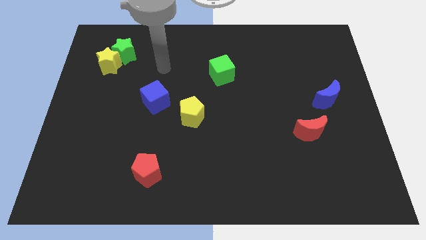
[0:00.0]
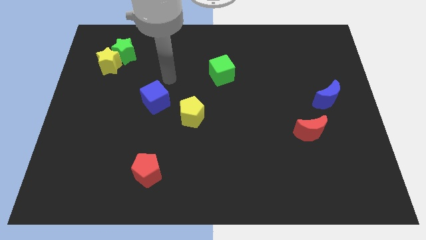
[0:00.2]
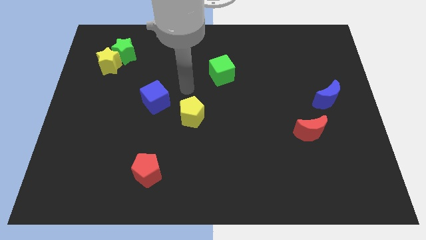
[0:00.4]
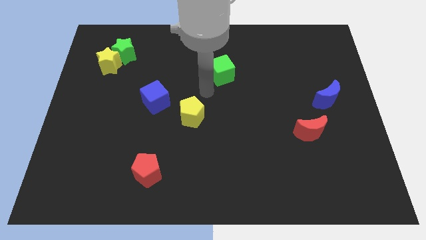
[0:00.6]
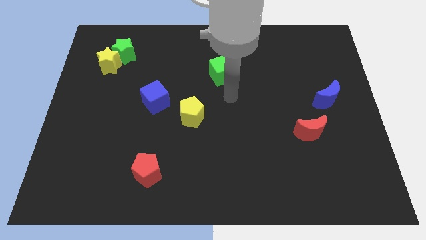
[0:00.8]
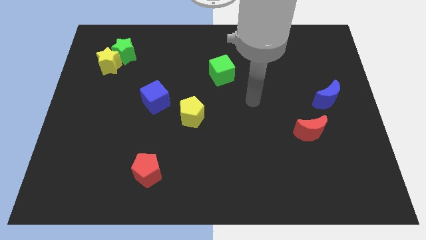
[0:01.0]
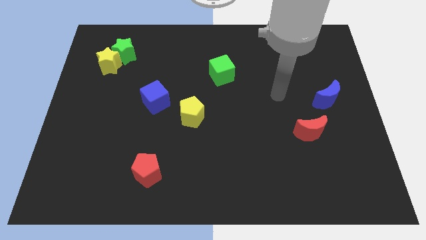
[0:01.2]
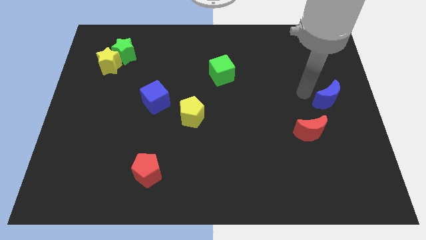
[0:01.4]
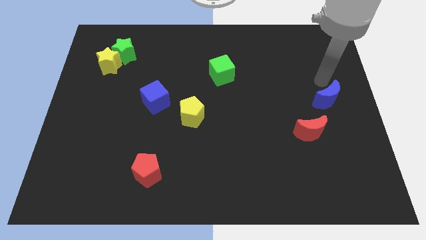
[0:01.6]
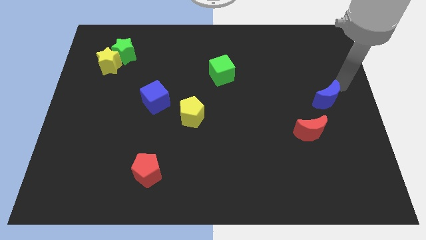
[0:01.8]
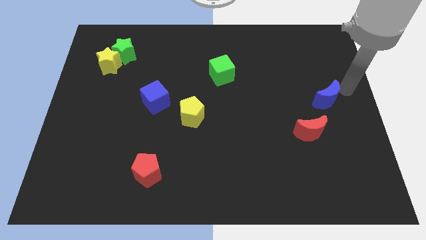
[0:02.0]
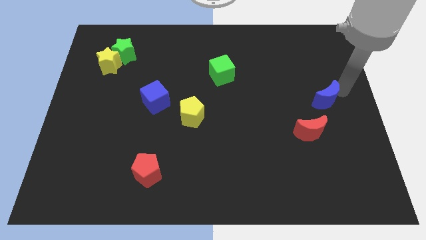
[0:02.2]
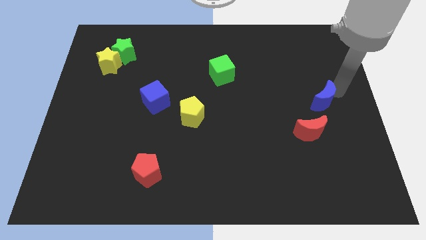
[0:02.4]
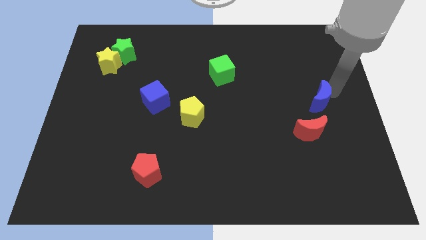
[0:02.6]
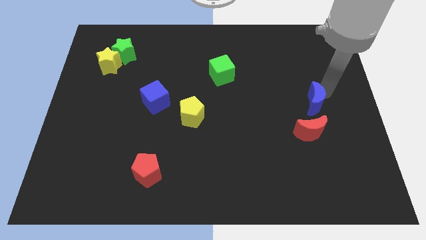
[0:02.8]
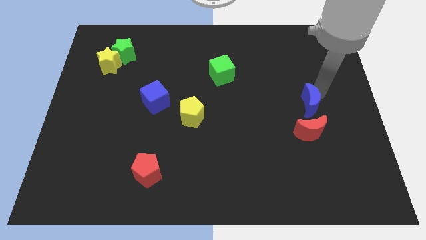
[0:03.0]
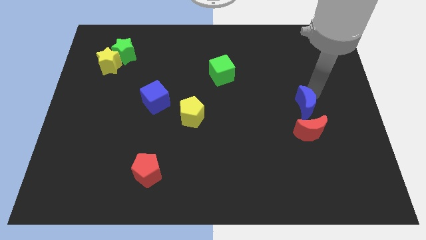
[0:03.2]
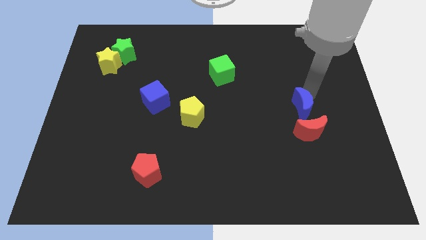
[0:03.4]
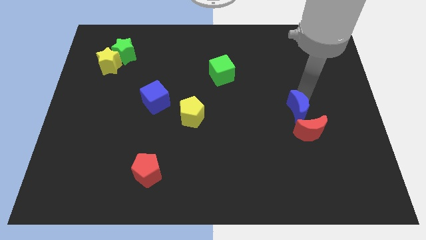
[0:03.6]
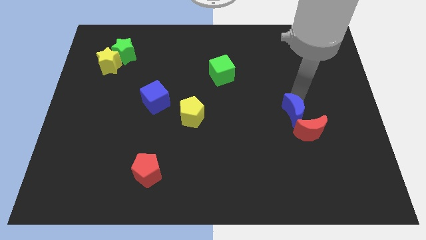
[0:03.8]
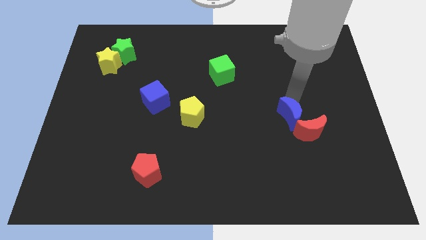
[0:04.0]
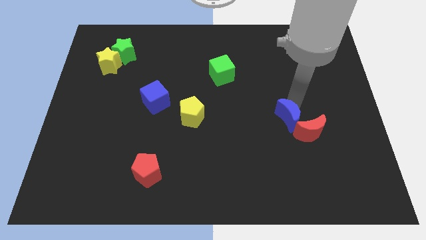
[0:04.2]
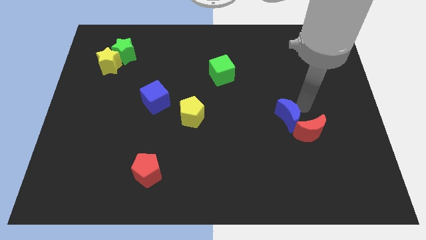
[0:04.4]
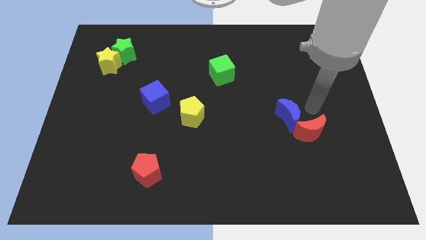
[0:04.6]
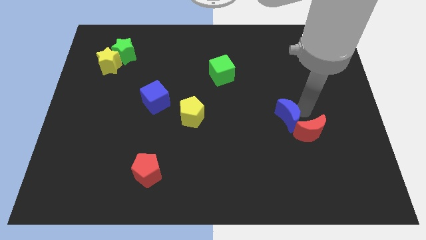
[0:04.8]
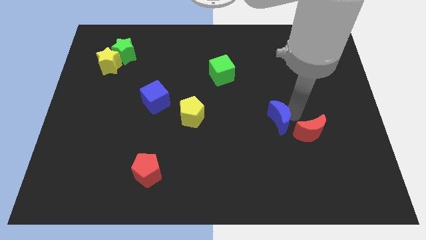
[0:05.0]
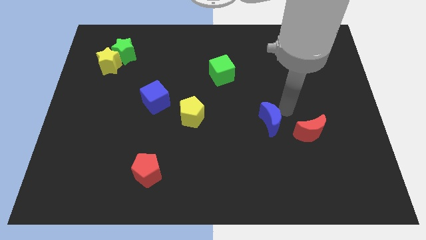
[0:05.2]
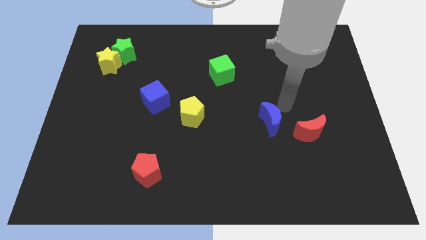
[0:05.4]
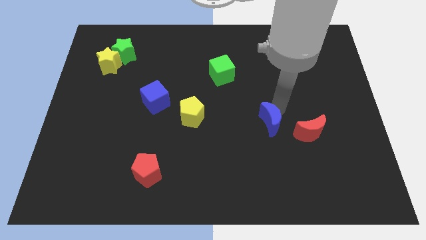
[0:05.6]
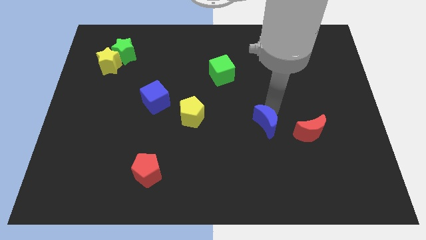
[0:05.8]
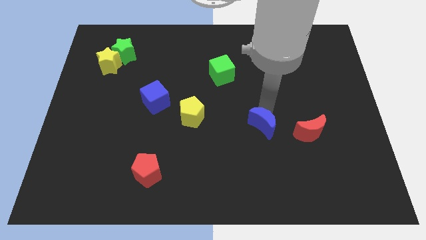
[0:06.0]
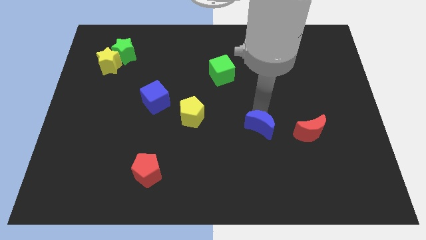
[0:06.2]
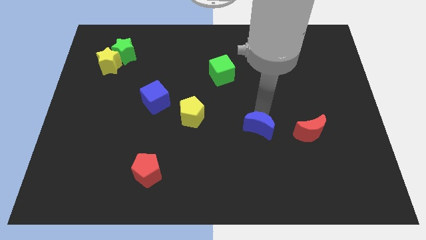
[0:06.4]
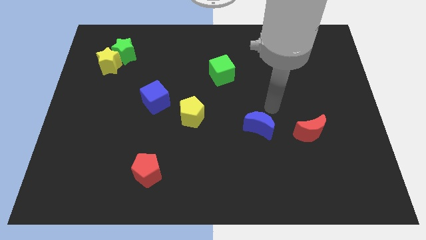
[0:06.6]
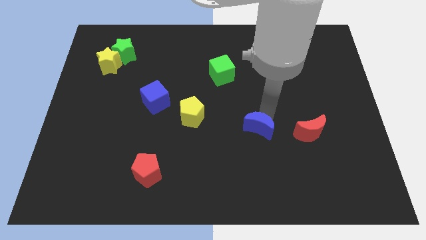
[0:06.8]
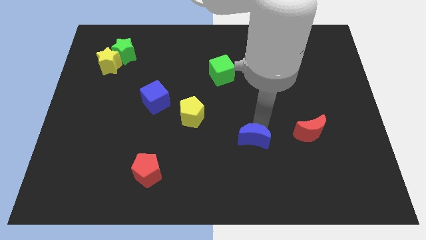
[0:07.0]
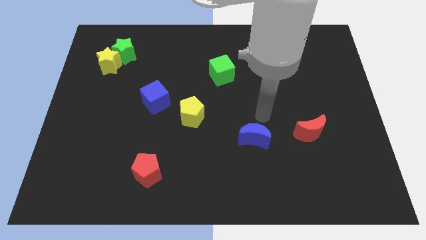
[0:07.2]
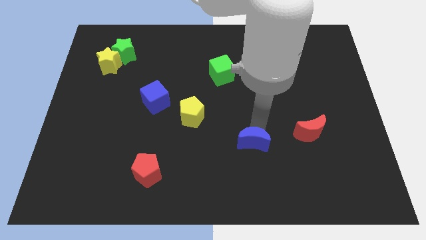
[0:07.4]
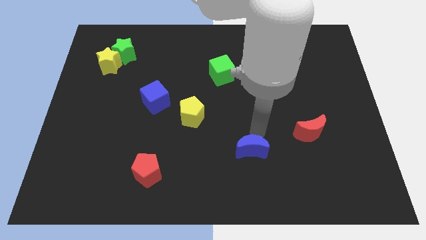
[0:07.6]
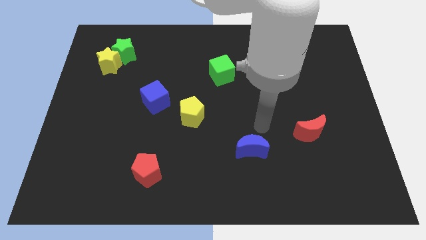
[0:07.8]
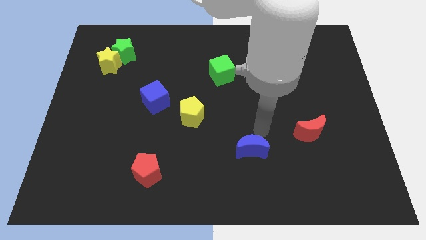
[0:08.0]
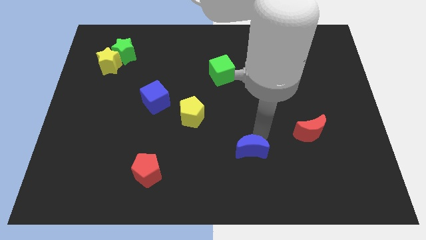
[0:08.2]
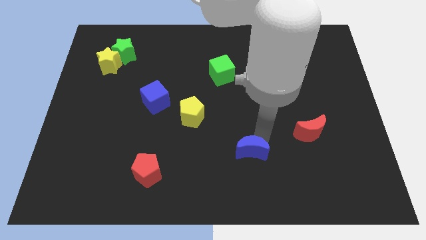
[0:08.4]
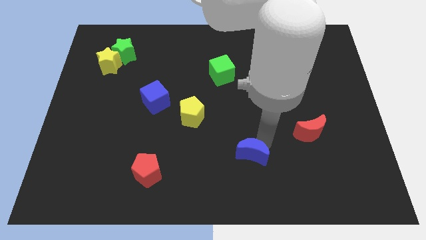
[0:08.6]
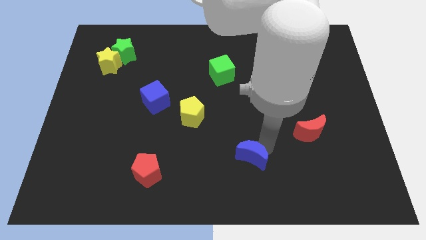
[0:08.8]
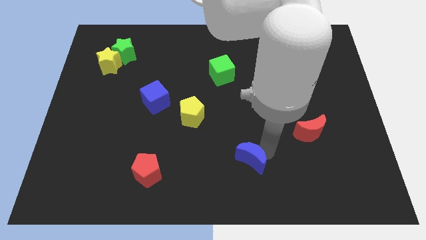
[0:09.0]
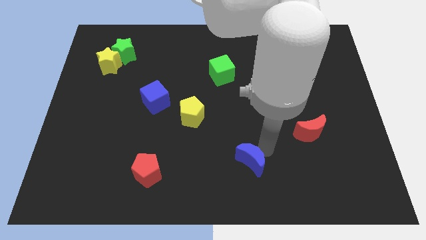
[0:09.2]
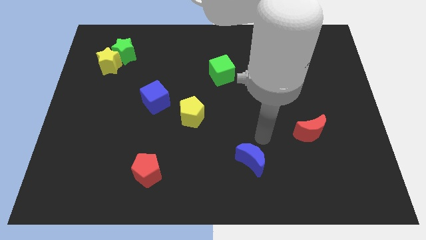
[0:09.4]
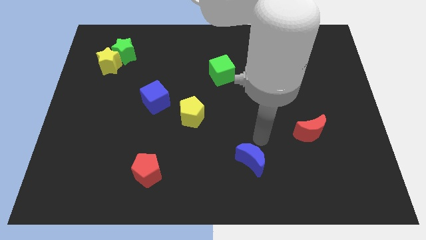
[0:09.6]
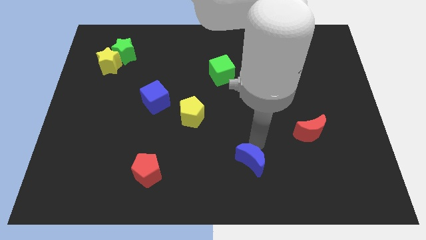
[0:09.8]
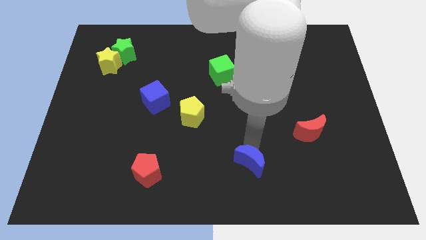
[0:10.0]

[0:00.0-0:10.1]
put the blue moon to the bottom

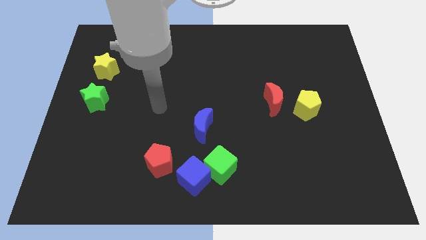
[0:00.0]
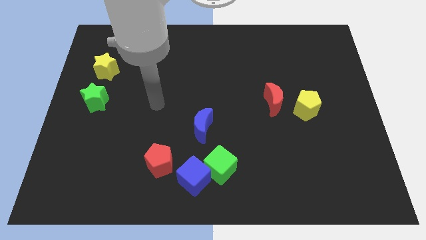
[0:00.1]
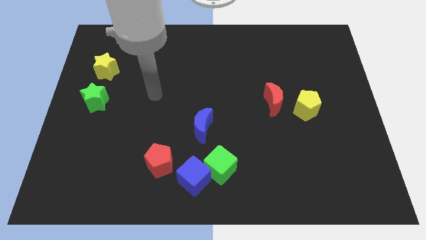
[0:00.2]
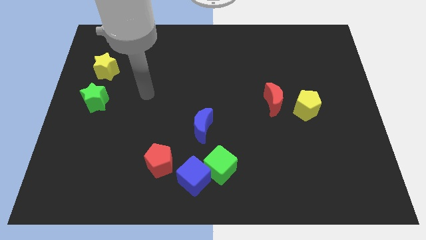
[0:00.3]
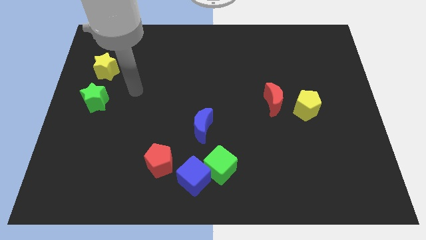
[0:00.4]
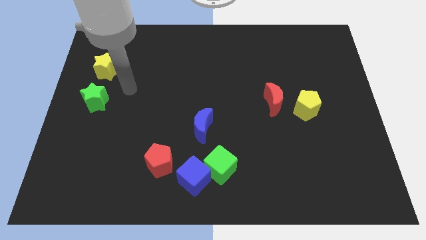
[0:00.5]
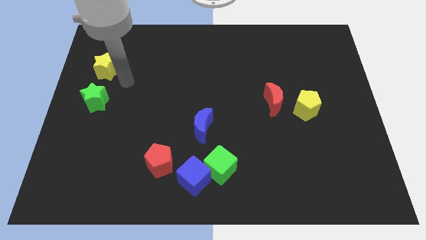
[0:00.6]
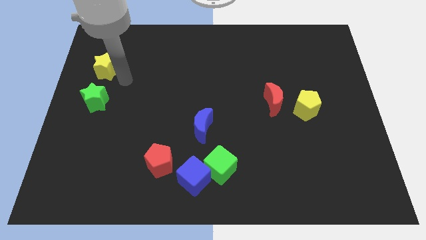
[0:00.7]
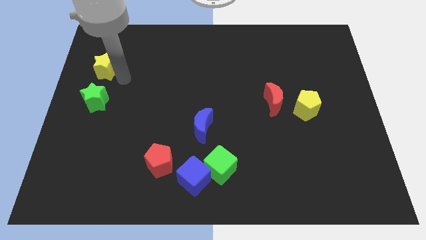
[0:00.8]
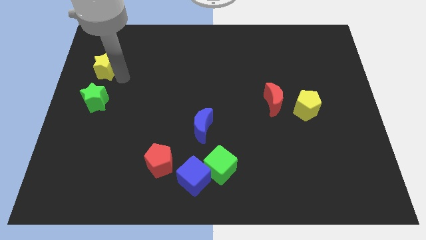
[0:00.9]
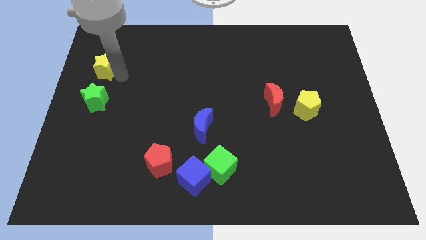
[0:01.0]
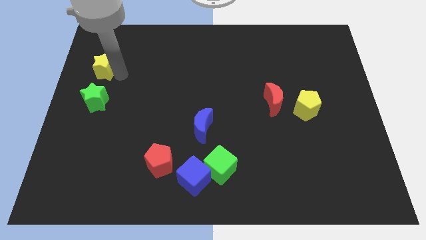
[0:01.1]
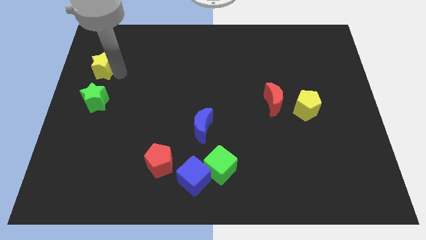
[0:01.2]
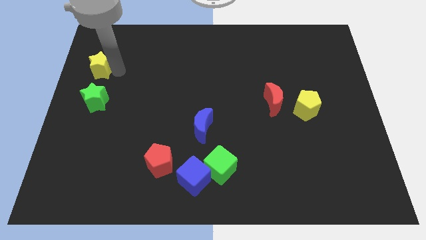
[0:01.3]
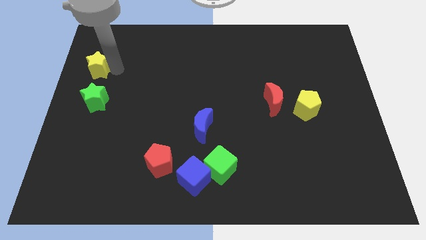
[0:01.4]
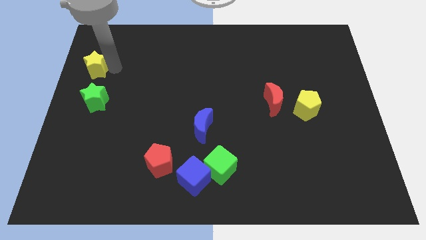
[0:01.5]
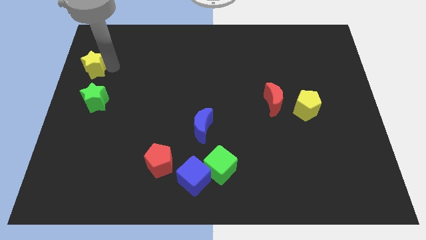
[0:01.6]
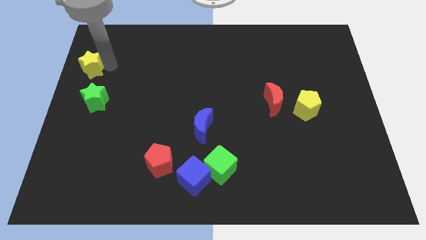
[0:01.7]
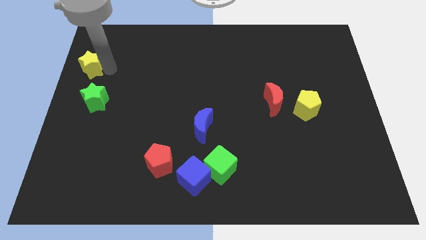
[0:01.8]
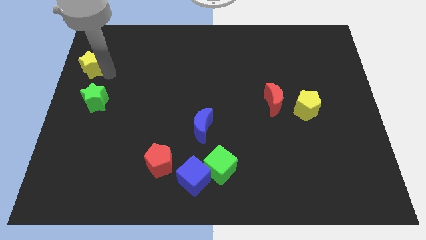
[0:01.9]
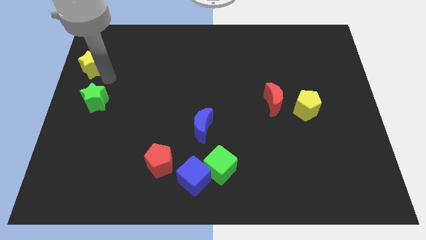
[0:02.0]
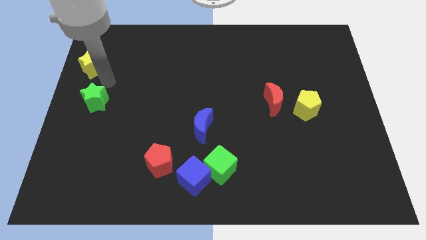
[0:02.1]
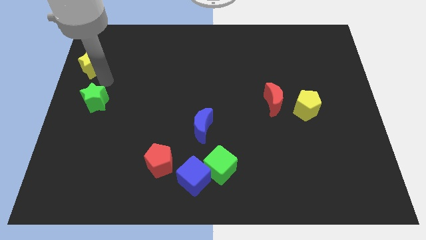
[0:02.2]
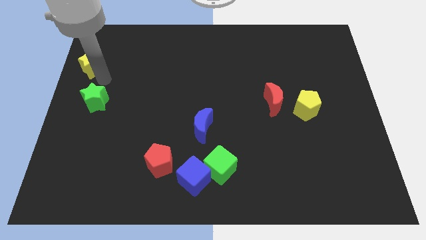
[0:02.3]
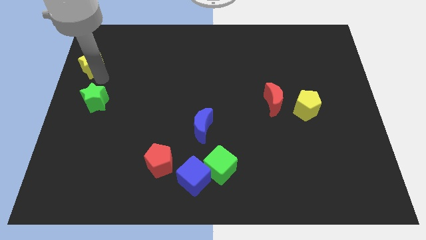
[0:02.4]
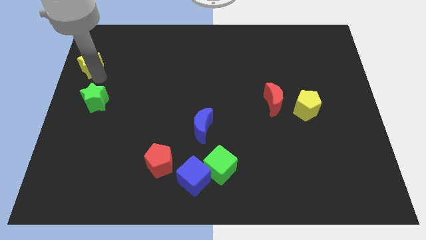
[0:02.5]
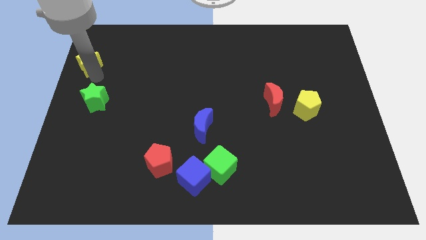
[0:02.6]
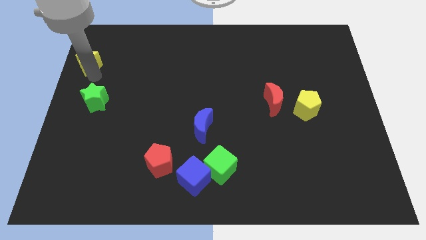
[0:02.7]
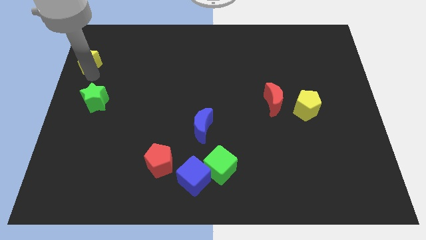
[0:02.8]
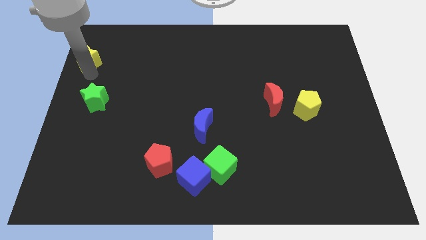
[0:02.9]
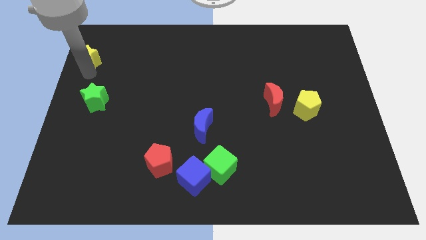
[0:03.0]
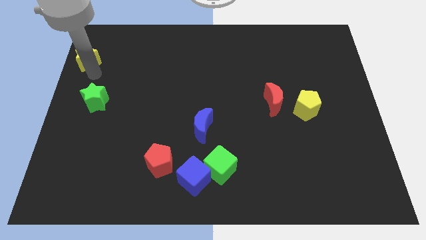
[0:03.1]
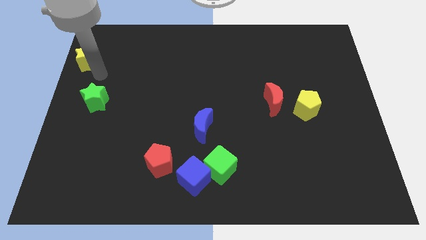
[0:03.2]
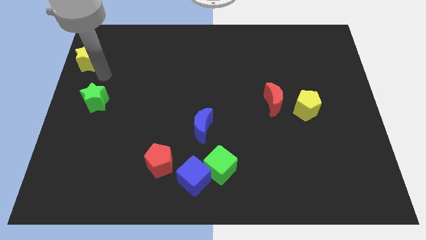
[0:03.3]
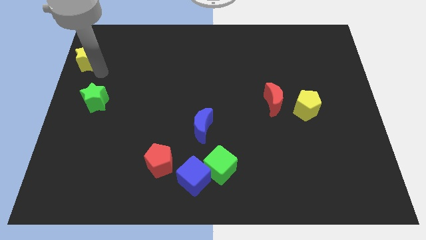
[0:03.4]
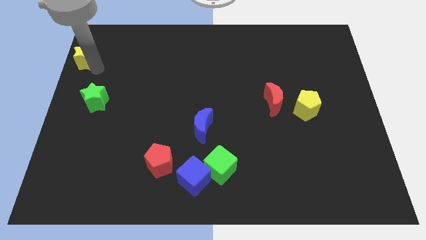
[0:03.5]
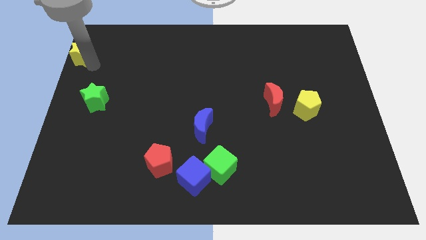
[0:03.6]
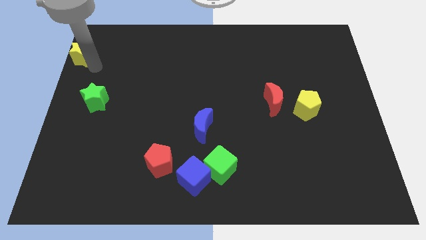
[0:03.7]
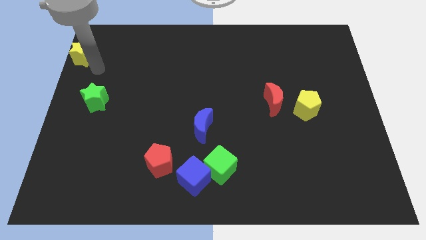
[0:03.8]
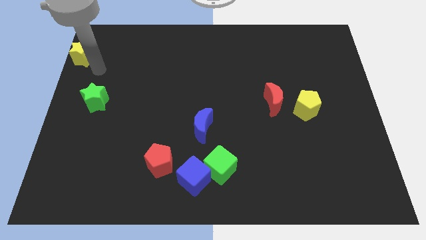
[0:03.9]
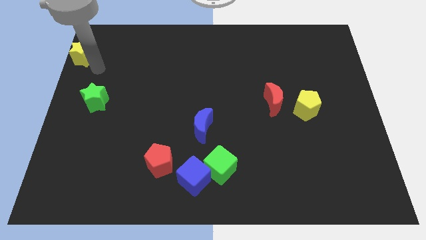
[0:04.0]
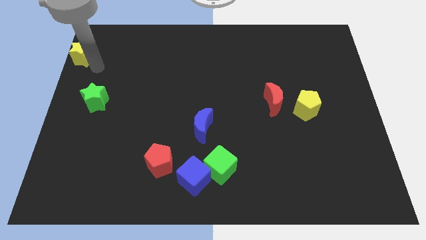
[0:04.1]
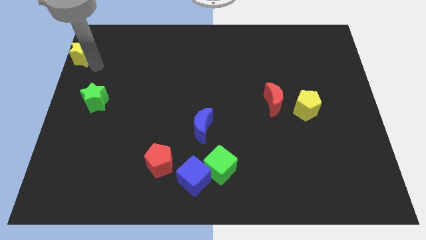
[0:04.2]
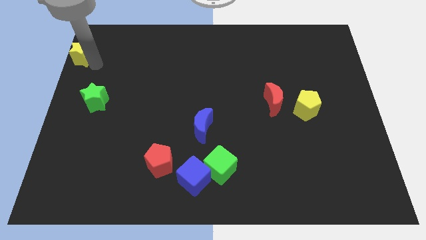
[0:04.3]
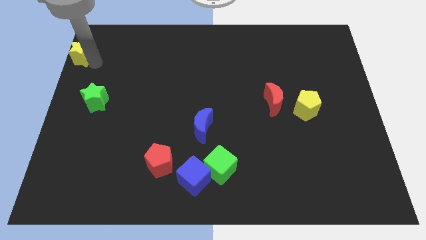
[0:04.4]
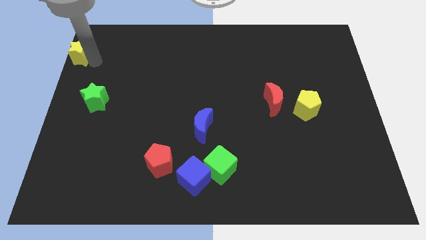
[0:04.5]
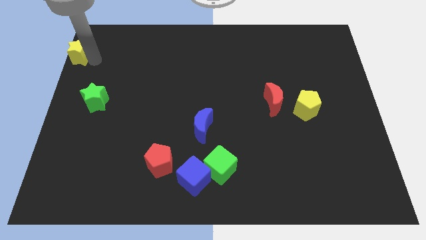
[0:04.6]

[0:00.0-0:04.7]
put the yellow star to the top left
